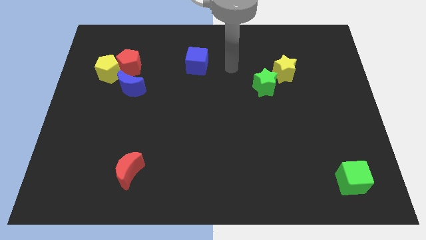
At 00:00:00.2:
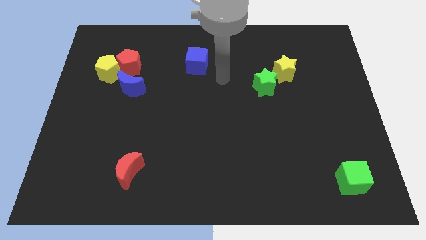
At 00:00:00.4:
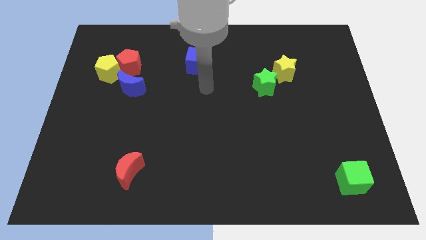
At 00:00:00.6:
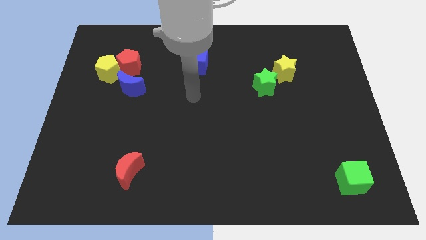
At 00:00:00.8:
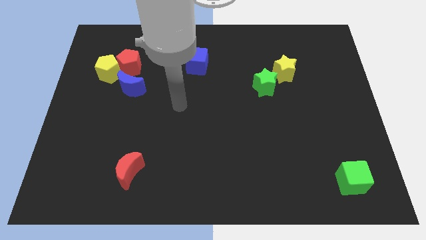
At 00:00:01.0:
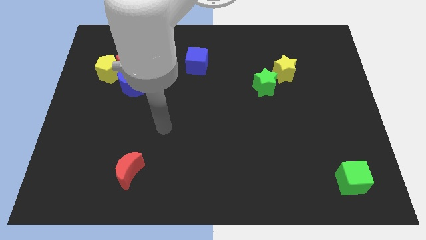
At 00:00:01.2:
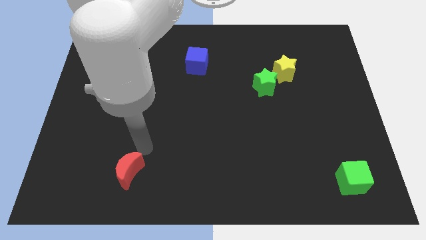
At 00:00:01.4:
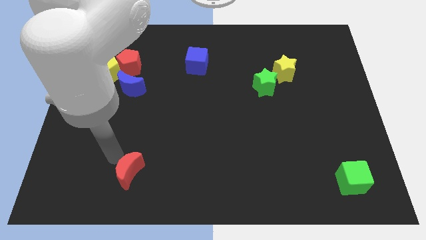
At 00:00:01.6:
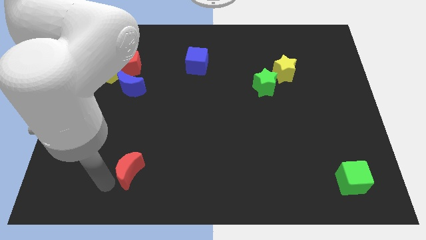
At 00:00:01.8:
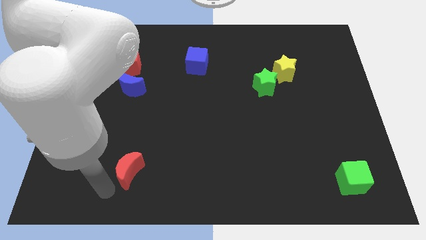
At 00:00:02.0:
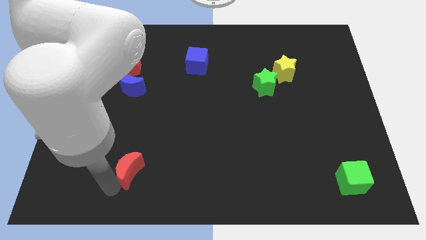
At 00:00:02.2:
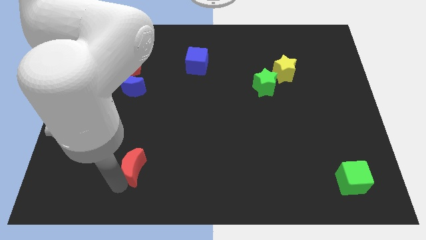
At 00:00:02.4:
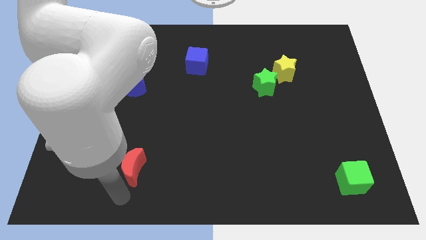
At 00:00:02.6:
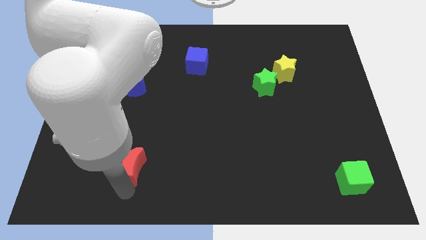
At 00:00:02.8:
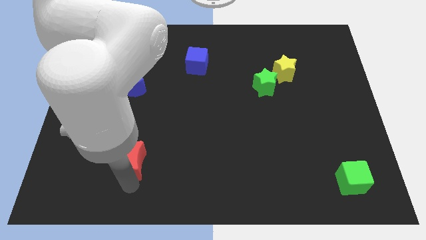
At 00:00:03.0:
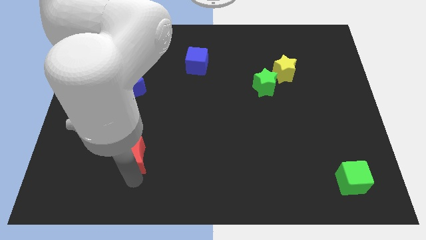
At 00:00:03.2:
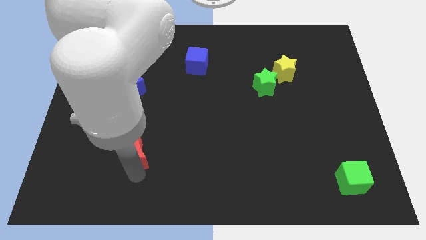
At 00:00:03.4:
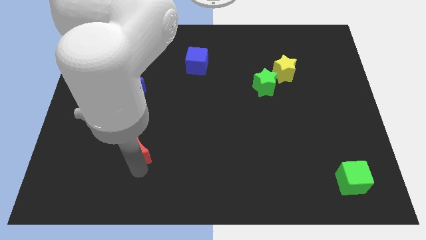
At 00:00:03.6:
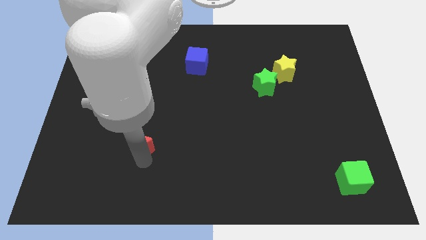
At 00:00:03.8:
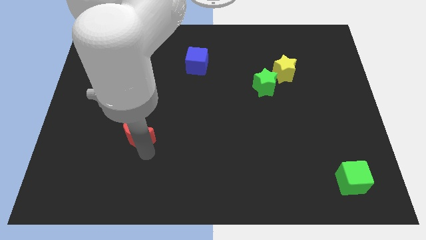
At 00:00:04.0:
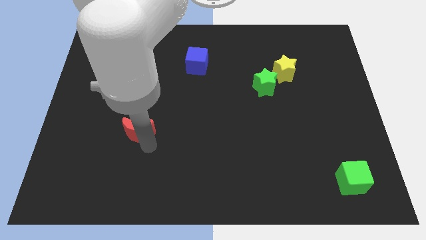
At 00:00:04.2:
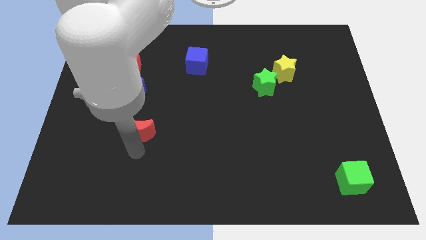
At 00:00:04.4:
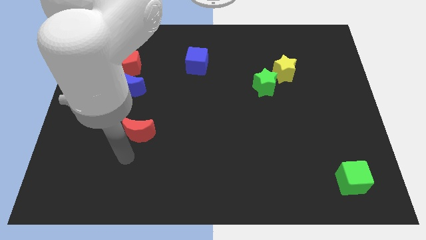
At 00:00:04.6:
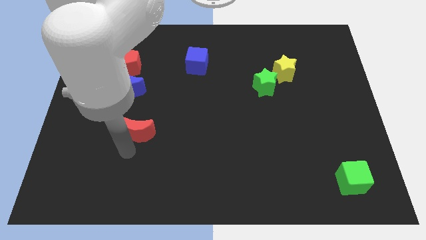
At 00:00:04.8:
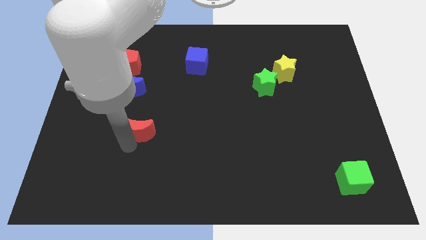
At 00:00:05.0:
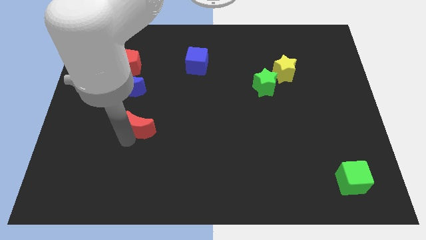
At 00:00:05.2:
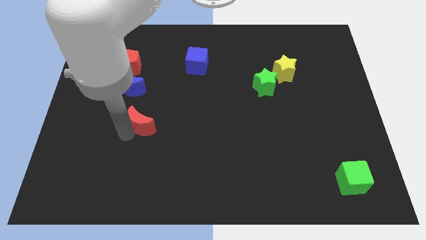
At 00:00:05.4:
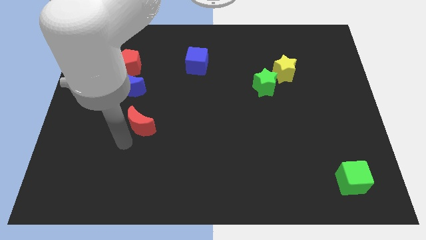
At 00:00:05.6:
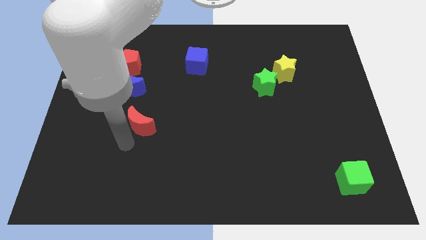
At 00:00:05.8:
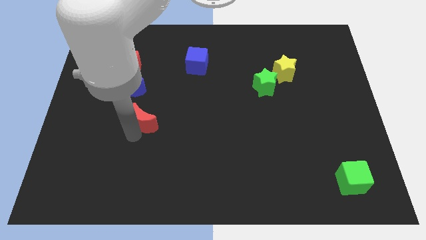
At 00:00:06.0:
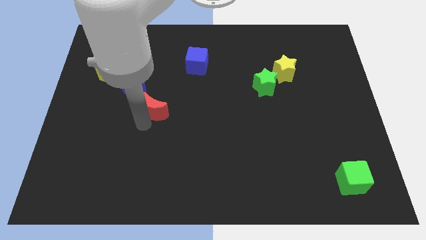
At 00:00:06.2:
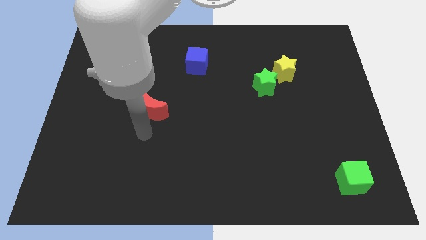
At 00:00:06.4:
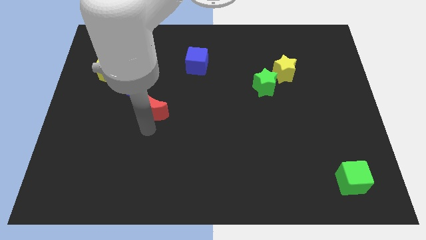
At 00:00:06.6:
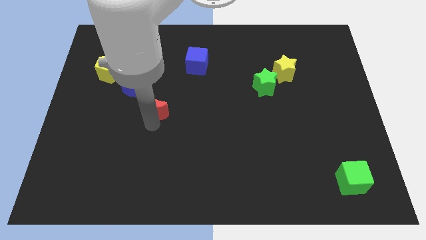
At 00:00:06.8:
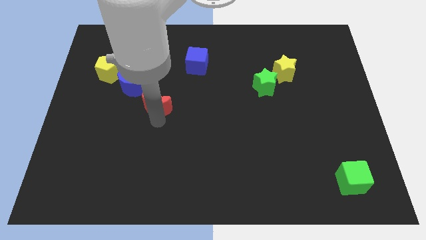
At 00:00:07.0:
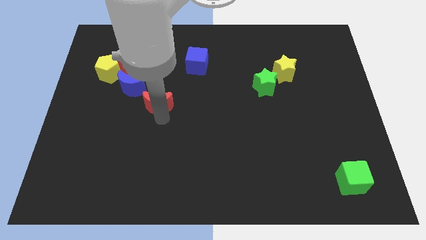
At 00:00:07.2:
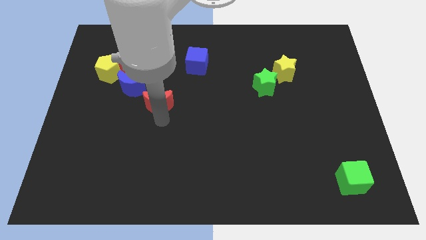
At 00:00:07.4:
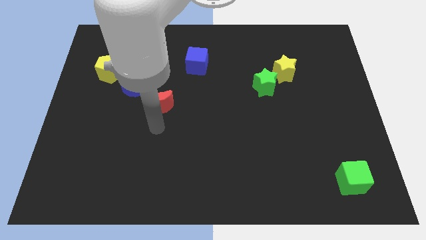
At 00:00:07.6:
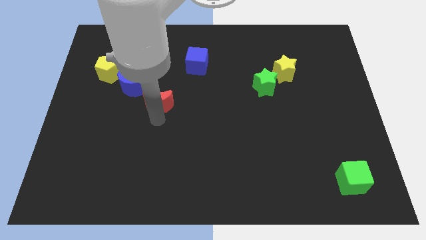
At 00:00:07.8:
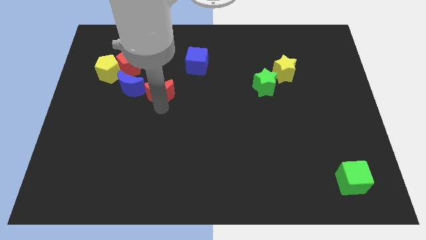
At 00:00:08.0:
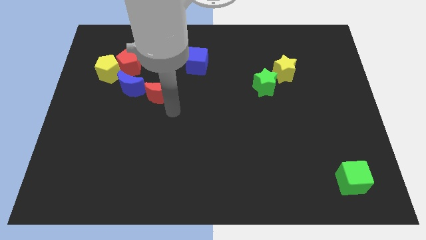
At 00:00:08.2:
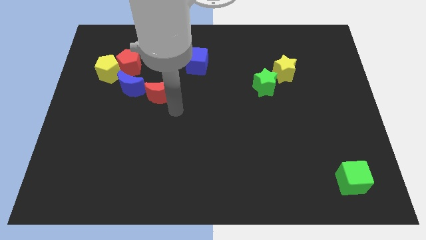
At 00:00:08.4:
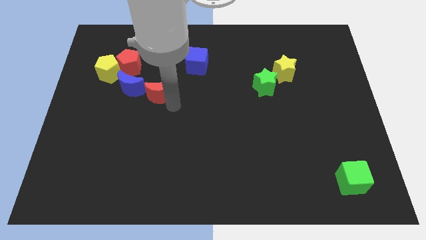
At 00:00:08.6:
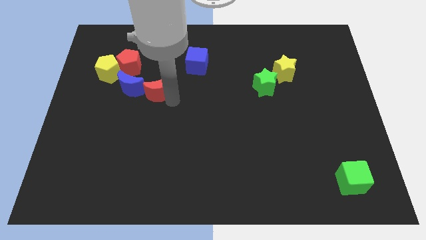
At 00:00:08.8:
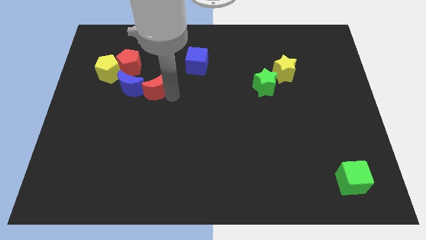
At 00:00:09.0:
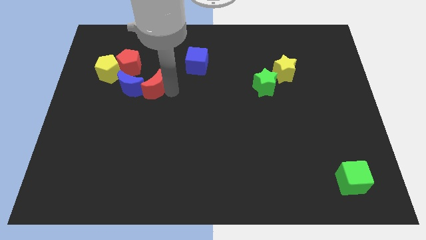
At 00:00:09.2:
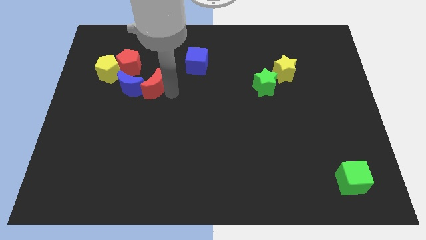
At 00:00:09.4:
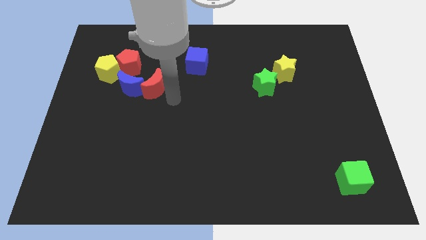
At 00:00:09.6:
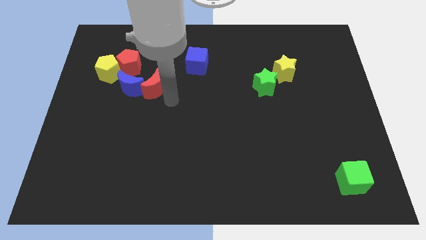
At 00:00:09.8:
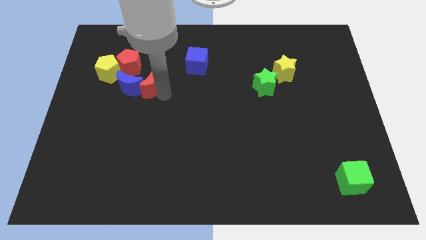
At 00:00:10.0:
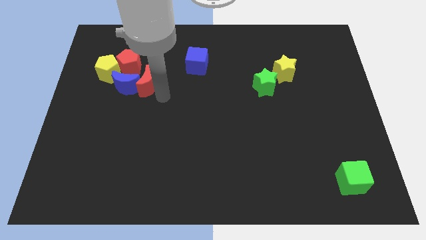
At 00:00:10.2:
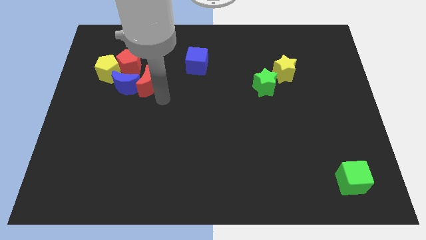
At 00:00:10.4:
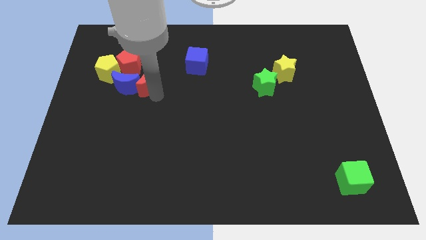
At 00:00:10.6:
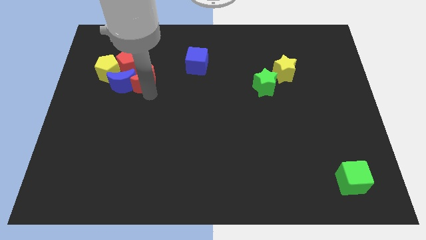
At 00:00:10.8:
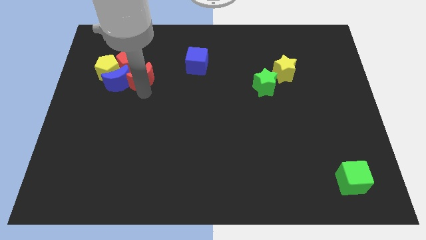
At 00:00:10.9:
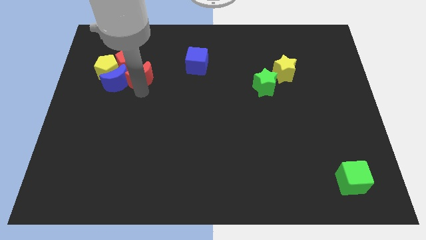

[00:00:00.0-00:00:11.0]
push the red moon next to the red pentagon

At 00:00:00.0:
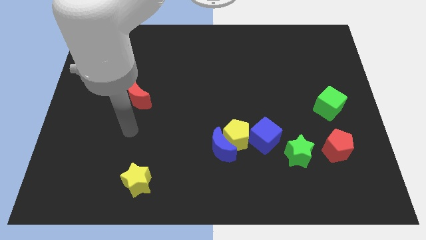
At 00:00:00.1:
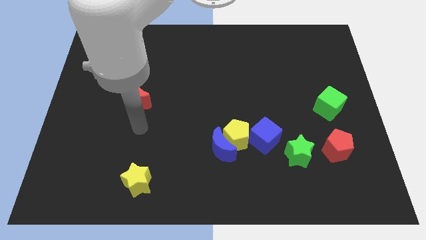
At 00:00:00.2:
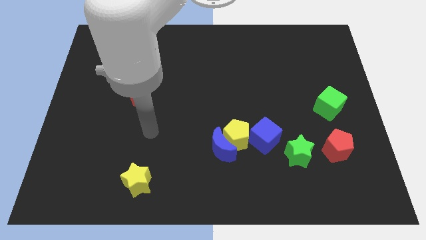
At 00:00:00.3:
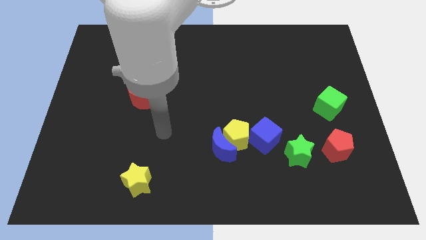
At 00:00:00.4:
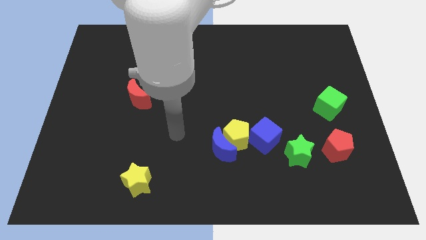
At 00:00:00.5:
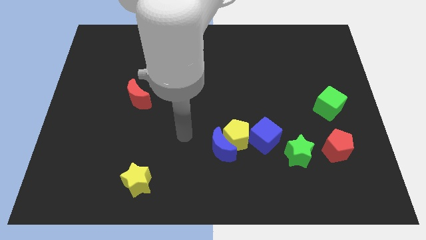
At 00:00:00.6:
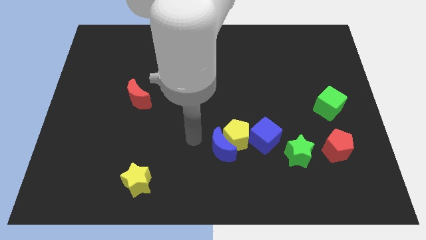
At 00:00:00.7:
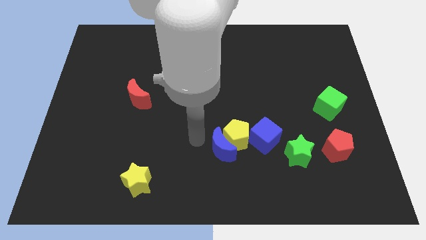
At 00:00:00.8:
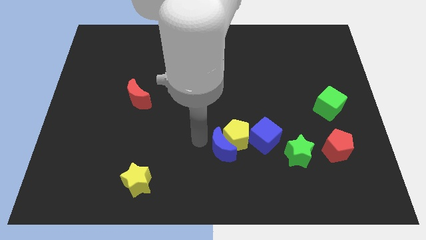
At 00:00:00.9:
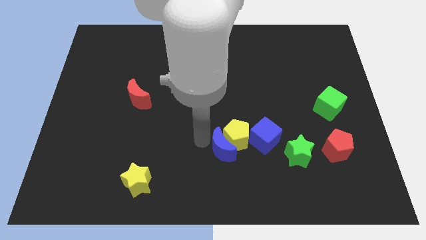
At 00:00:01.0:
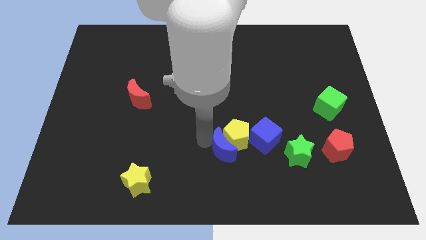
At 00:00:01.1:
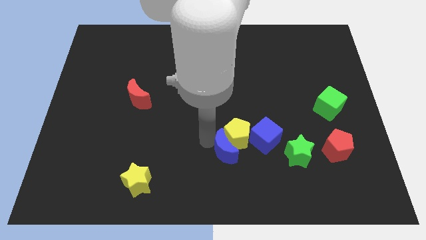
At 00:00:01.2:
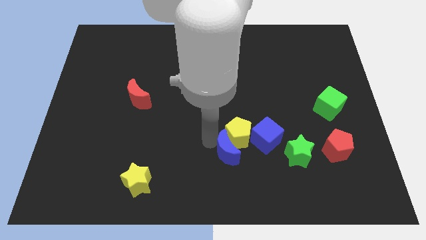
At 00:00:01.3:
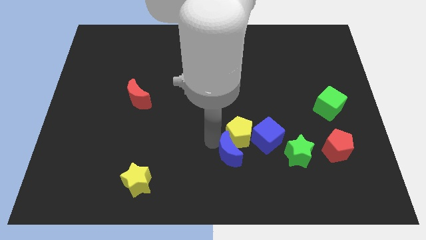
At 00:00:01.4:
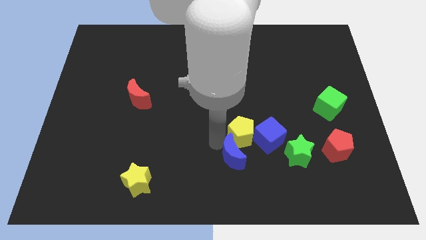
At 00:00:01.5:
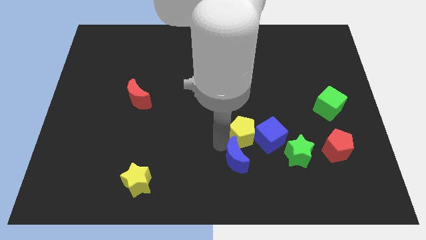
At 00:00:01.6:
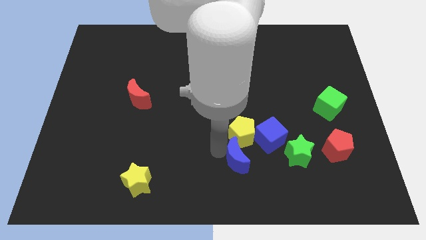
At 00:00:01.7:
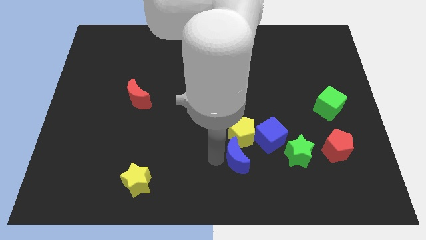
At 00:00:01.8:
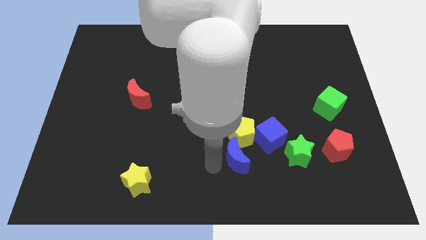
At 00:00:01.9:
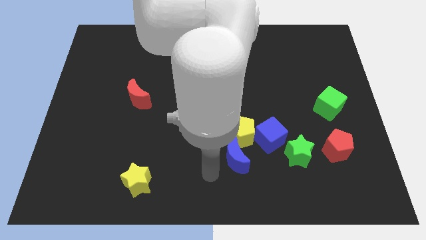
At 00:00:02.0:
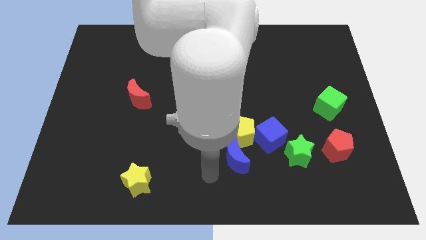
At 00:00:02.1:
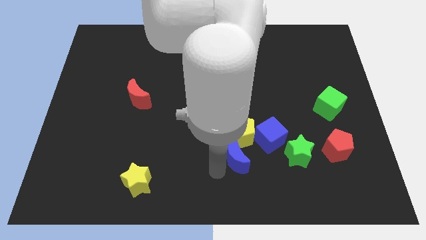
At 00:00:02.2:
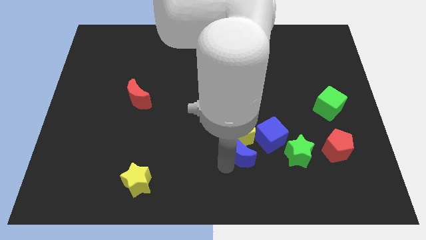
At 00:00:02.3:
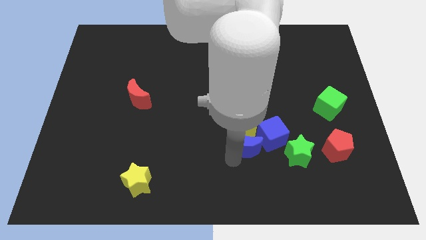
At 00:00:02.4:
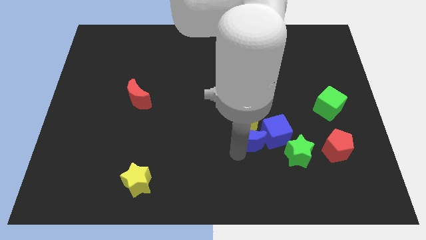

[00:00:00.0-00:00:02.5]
slide the blue moon next to the blue cube
